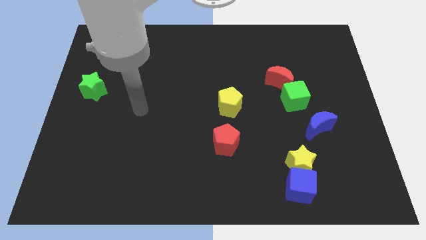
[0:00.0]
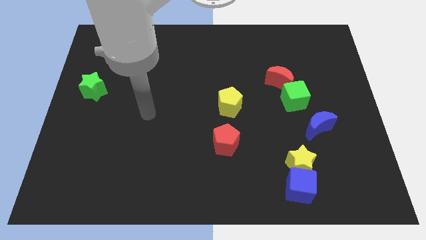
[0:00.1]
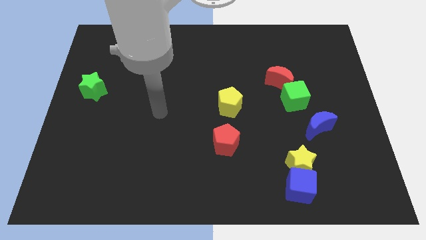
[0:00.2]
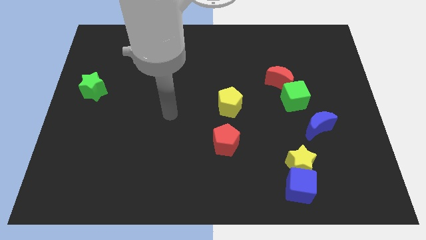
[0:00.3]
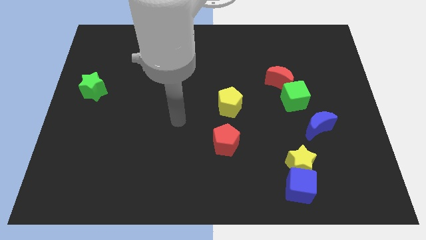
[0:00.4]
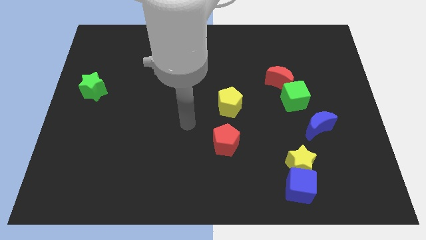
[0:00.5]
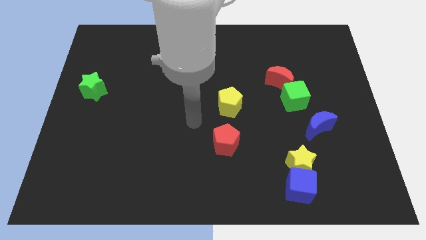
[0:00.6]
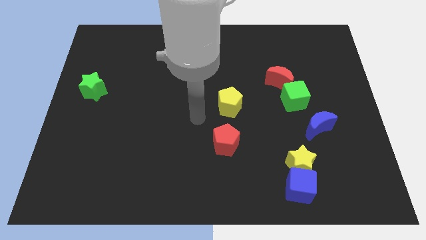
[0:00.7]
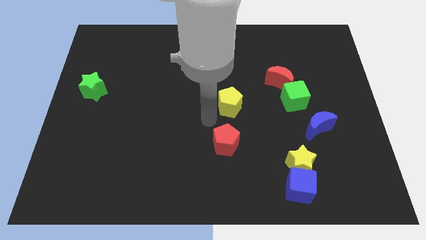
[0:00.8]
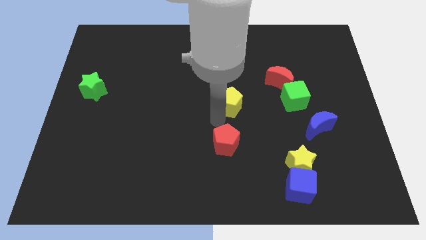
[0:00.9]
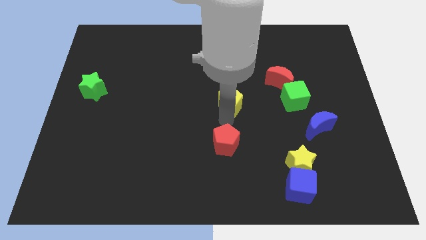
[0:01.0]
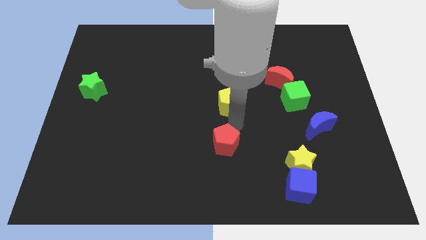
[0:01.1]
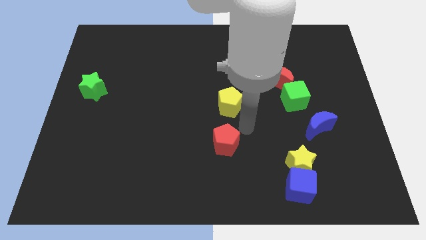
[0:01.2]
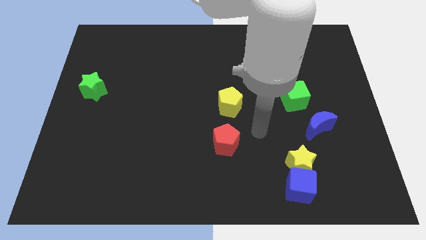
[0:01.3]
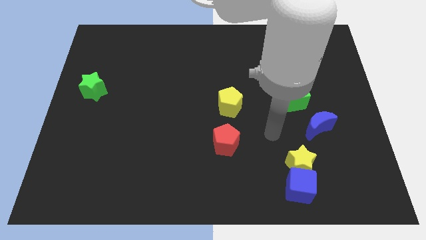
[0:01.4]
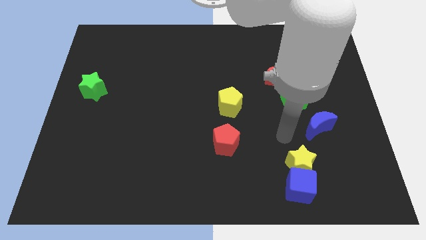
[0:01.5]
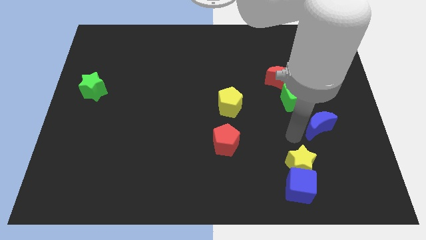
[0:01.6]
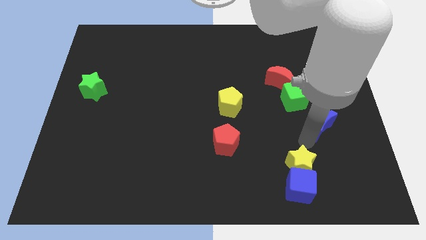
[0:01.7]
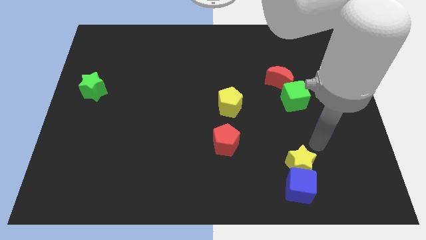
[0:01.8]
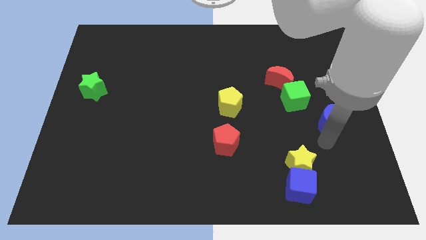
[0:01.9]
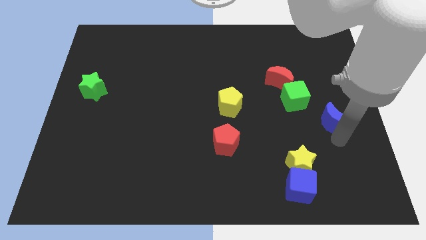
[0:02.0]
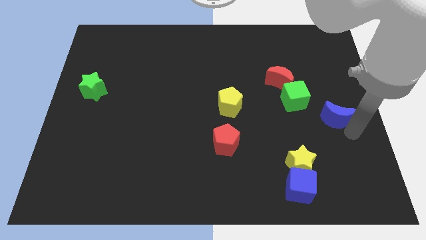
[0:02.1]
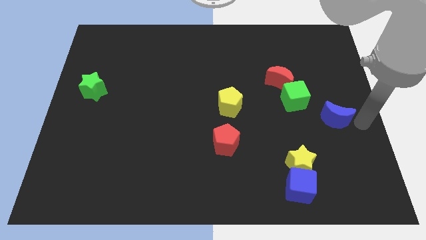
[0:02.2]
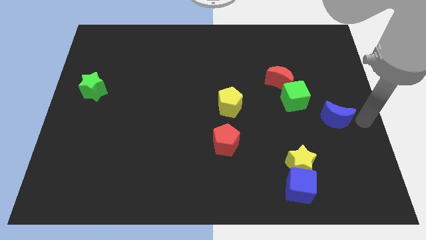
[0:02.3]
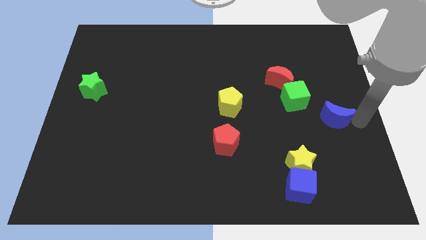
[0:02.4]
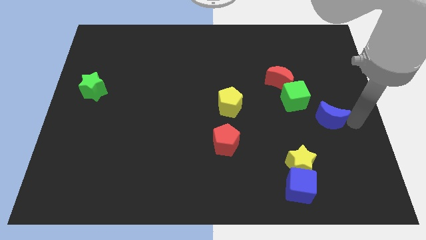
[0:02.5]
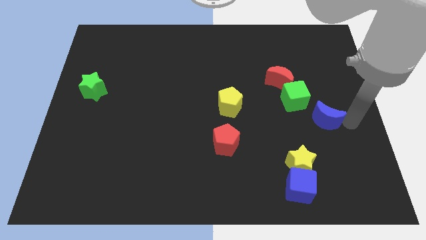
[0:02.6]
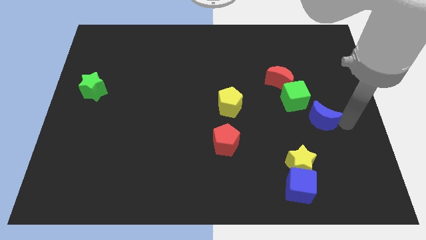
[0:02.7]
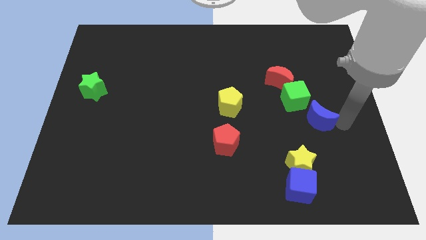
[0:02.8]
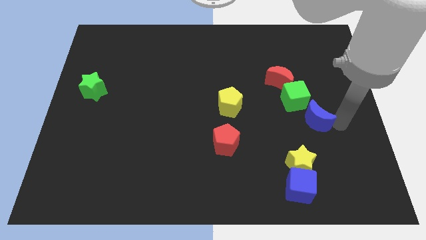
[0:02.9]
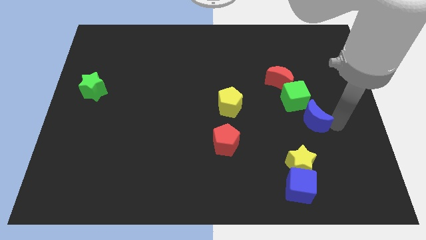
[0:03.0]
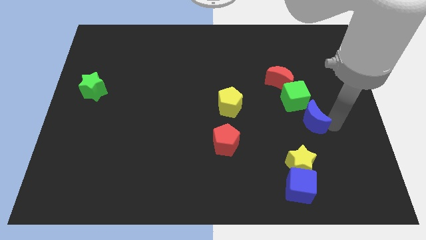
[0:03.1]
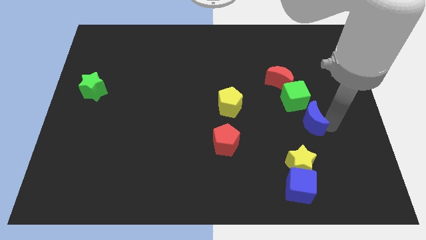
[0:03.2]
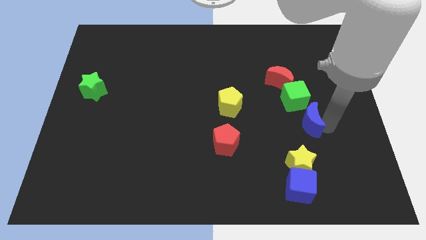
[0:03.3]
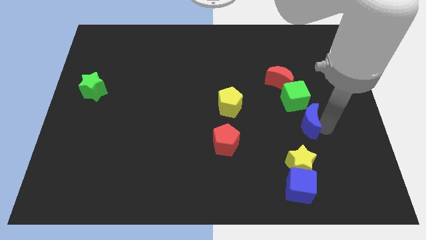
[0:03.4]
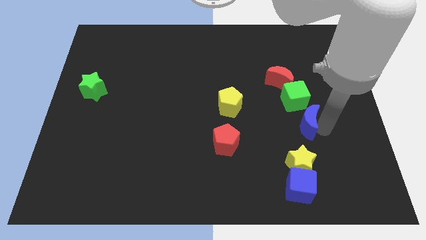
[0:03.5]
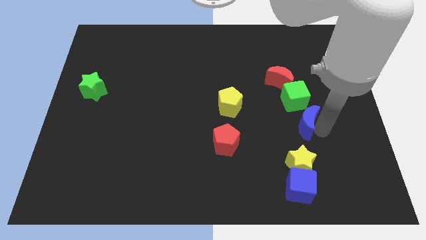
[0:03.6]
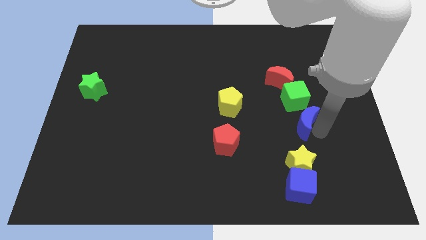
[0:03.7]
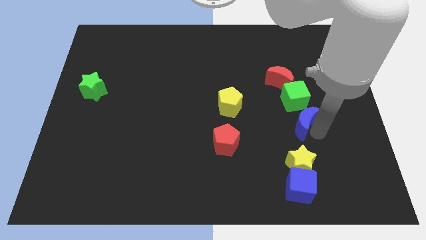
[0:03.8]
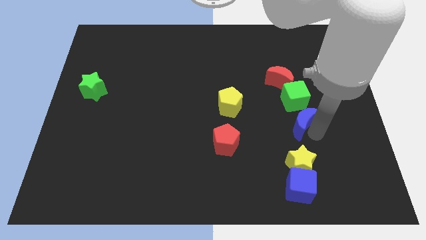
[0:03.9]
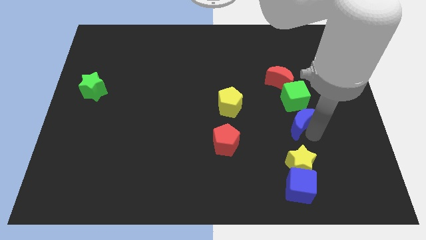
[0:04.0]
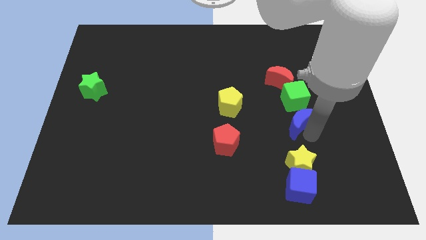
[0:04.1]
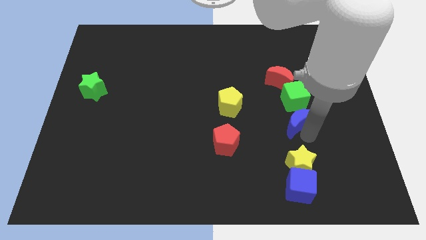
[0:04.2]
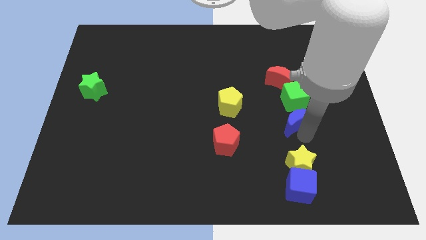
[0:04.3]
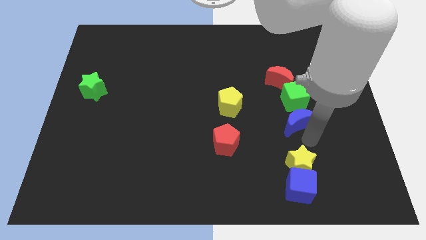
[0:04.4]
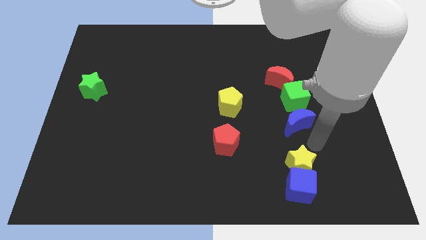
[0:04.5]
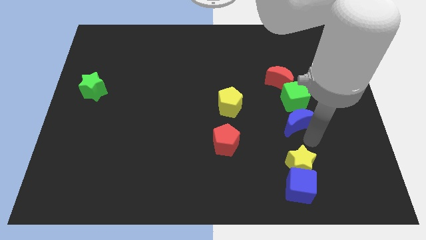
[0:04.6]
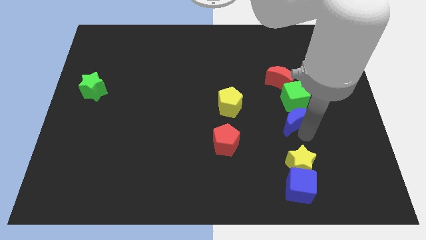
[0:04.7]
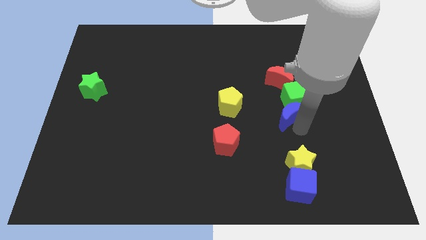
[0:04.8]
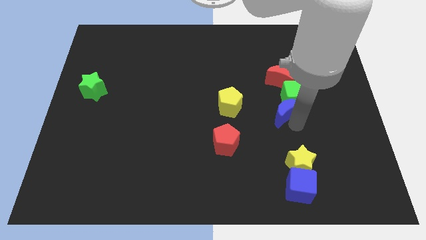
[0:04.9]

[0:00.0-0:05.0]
slide the blue moon slightly up and then left

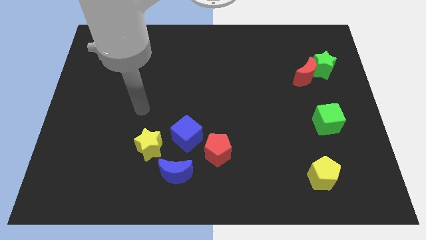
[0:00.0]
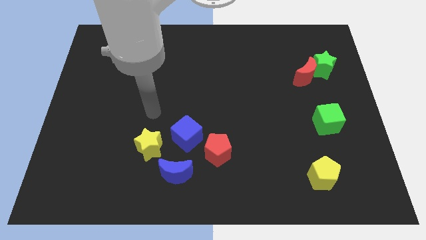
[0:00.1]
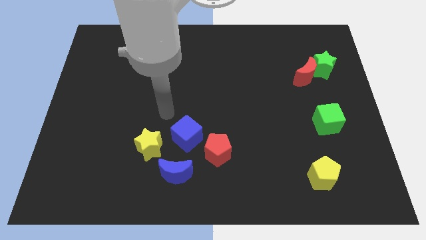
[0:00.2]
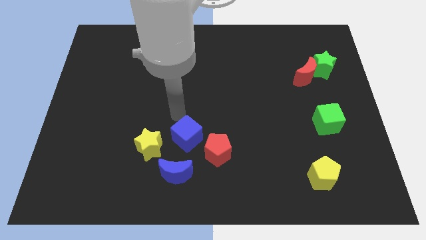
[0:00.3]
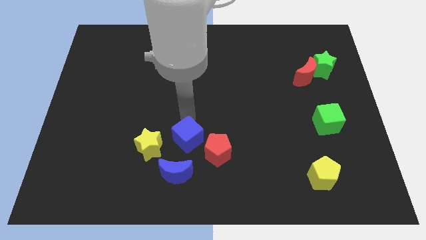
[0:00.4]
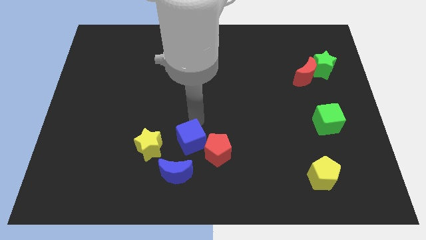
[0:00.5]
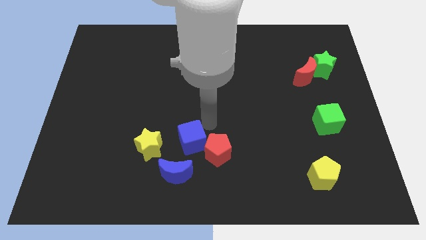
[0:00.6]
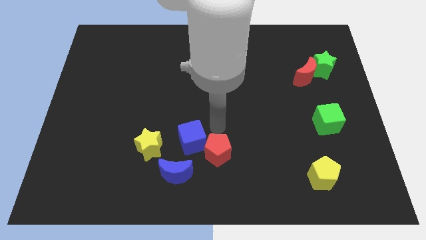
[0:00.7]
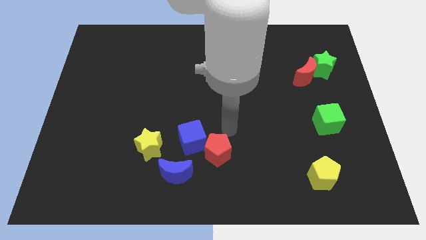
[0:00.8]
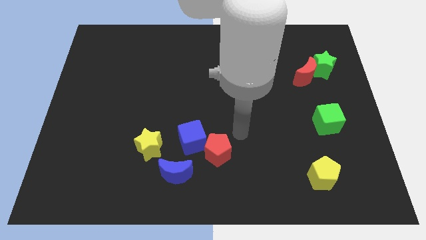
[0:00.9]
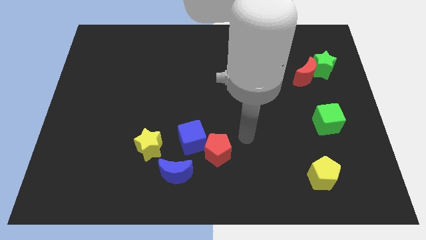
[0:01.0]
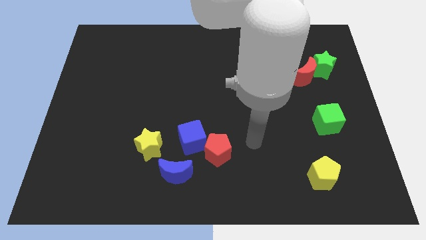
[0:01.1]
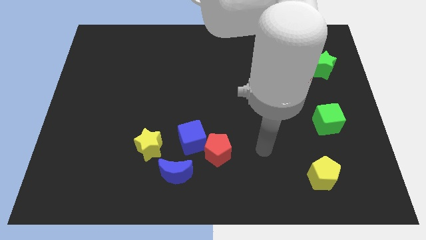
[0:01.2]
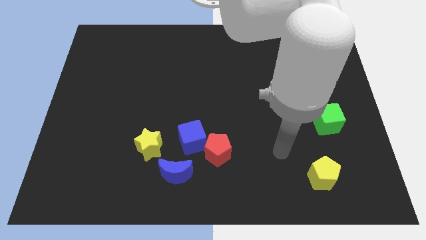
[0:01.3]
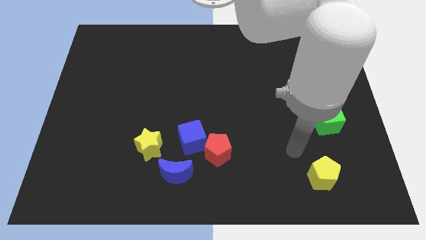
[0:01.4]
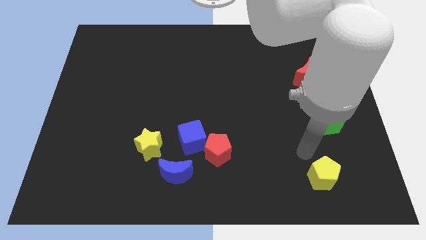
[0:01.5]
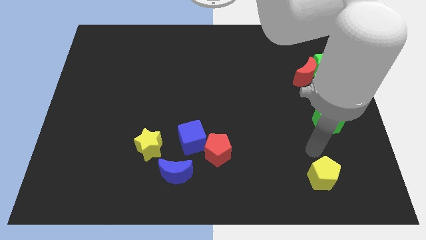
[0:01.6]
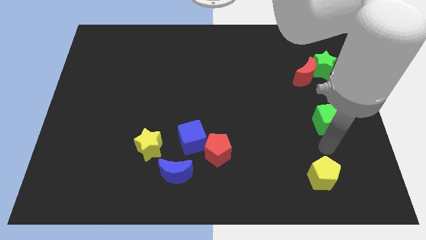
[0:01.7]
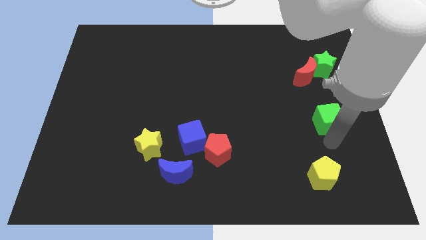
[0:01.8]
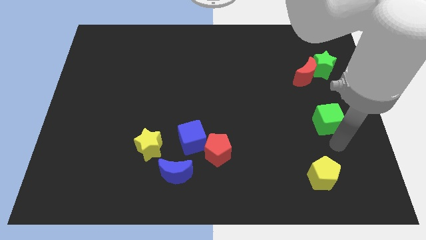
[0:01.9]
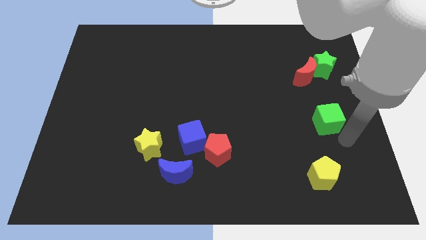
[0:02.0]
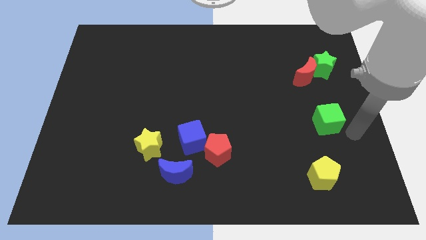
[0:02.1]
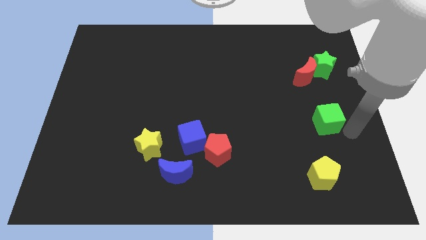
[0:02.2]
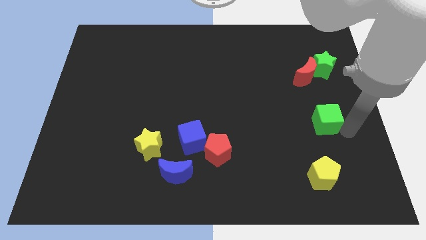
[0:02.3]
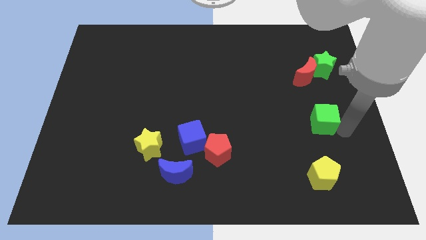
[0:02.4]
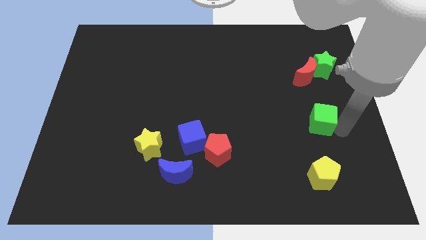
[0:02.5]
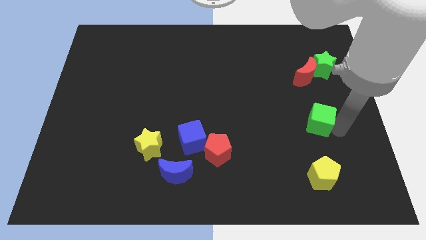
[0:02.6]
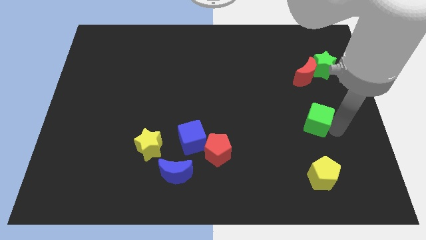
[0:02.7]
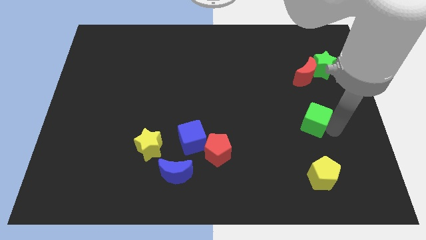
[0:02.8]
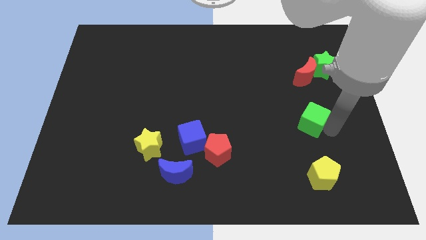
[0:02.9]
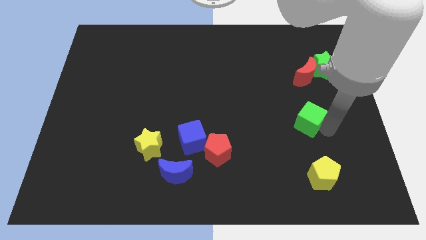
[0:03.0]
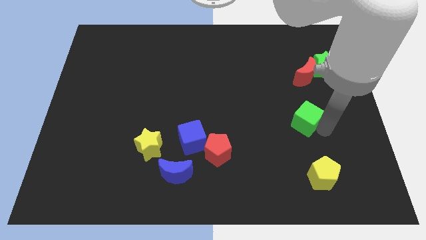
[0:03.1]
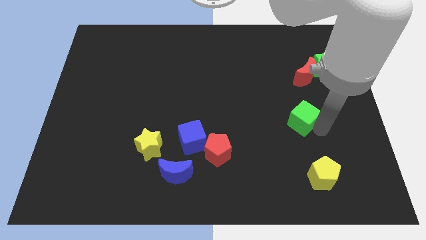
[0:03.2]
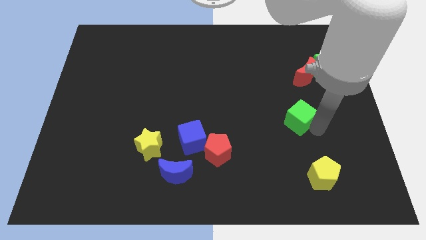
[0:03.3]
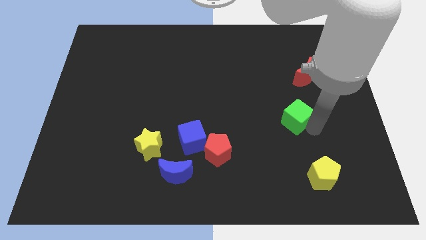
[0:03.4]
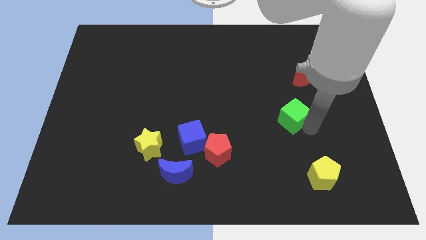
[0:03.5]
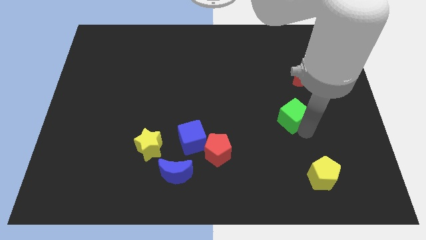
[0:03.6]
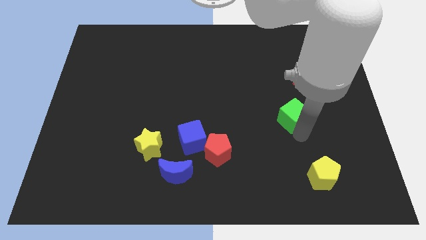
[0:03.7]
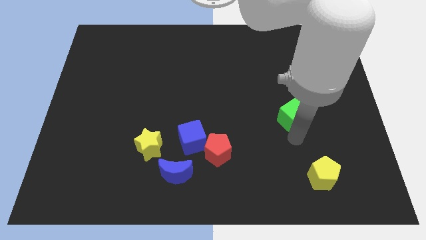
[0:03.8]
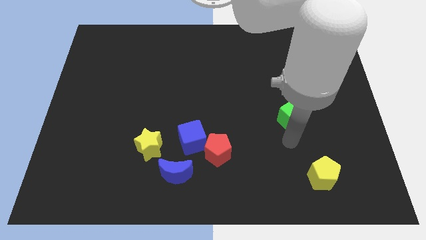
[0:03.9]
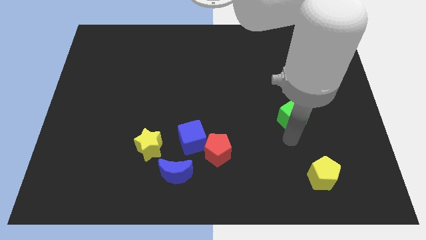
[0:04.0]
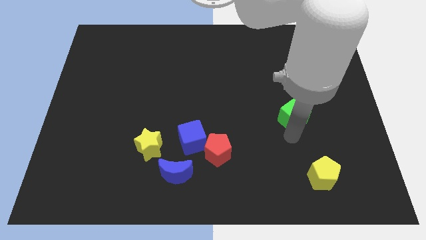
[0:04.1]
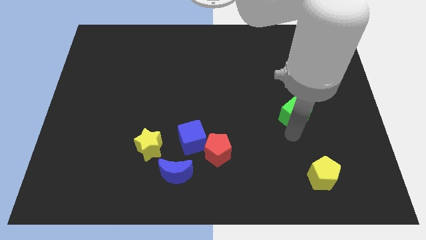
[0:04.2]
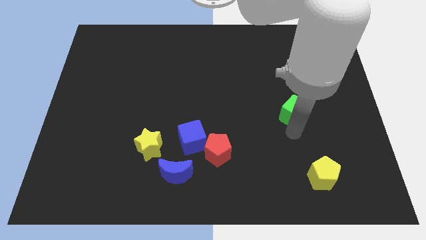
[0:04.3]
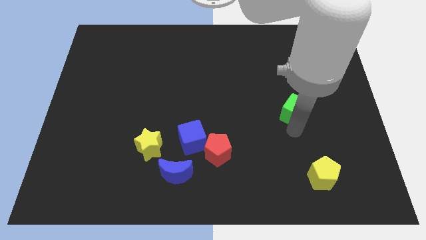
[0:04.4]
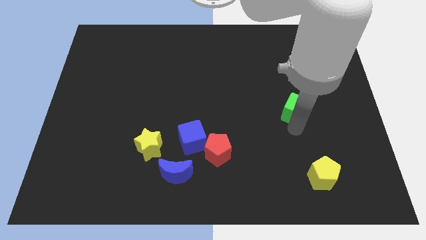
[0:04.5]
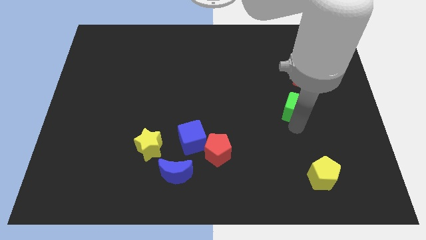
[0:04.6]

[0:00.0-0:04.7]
move the green cube a little bit upwards and to the left
